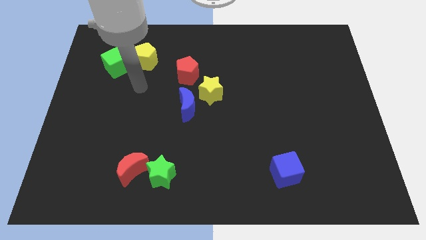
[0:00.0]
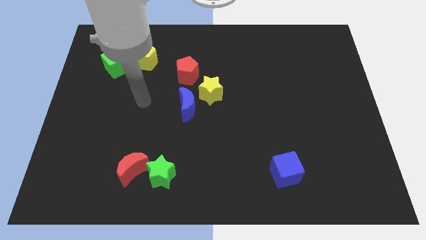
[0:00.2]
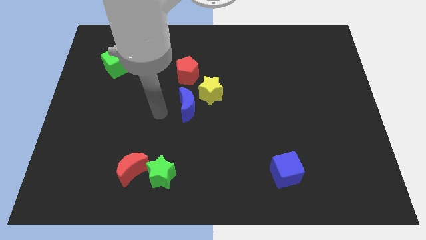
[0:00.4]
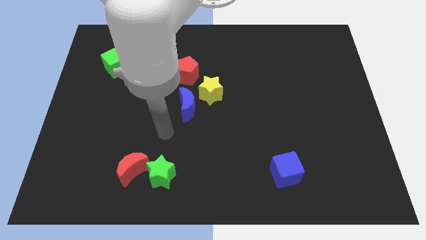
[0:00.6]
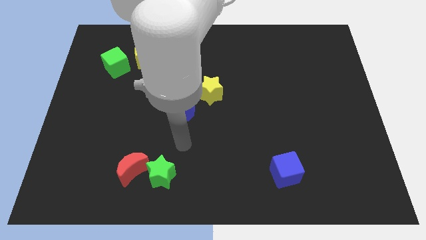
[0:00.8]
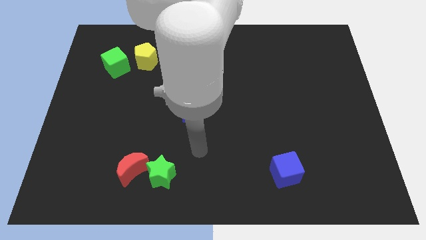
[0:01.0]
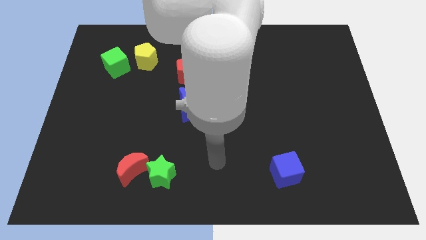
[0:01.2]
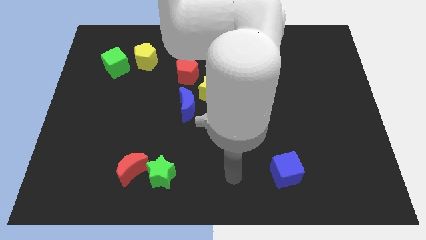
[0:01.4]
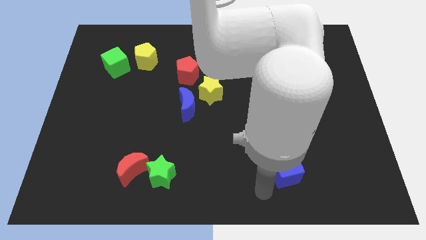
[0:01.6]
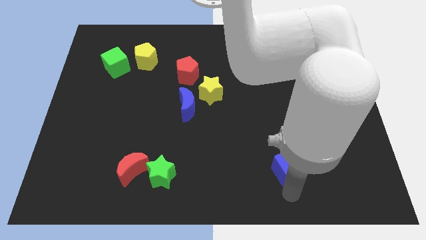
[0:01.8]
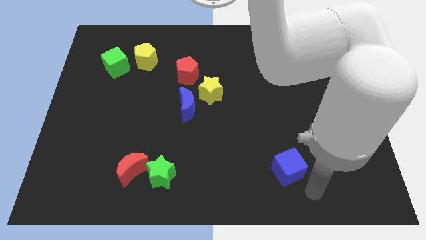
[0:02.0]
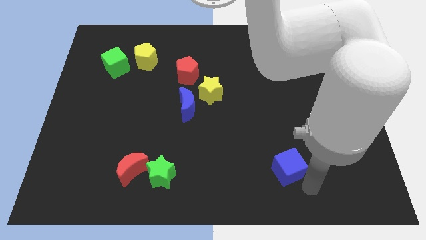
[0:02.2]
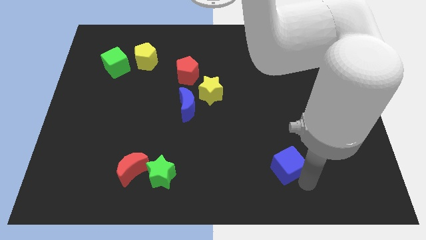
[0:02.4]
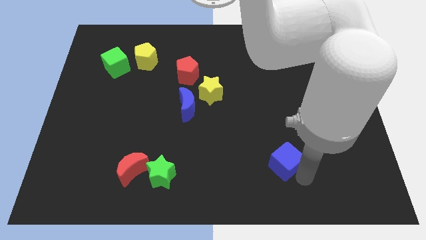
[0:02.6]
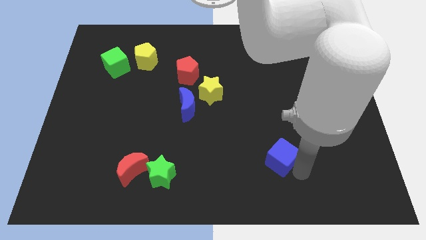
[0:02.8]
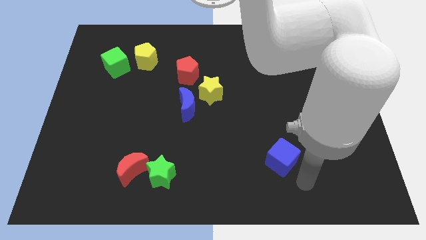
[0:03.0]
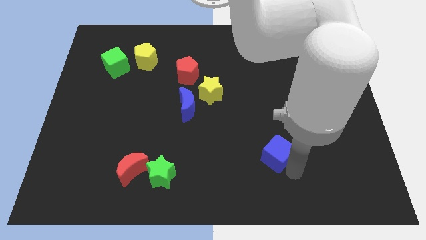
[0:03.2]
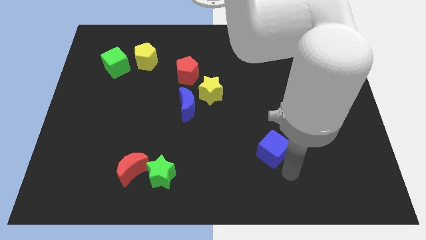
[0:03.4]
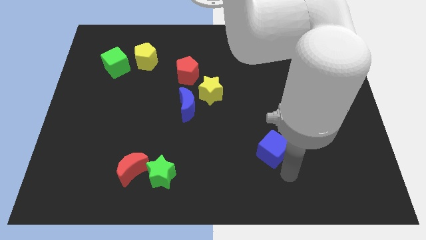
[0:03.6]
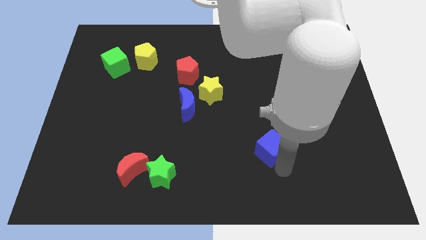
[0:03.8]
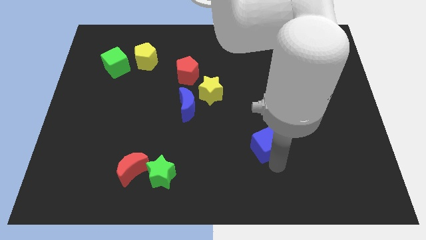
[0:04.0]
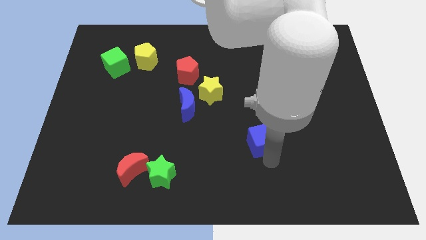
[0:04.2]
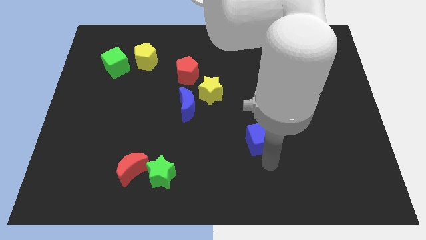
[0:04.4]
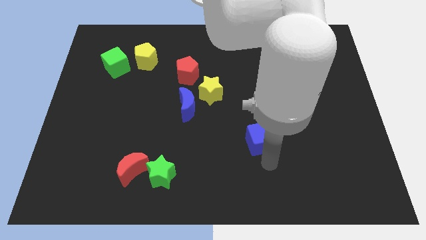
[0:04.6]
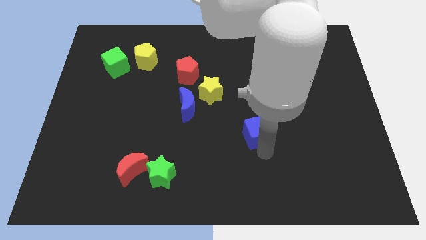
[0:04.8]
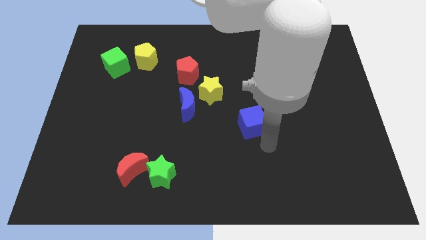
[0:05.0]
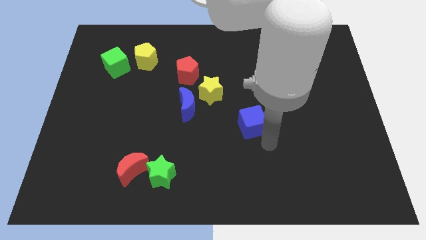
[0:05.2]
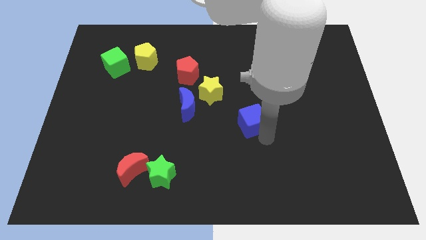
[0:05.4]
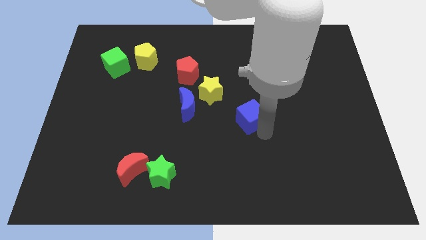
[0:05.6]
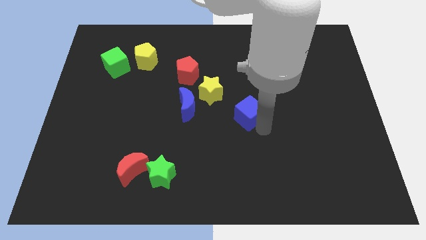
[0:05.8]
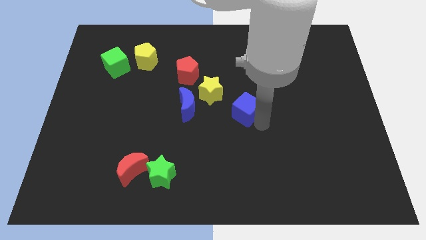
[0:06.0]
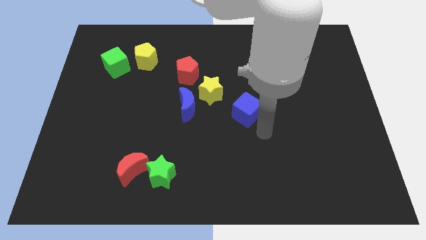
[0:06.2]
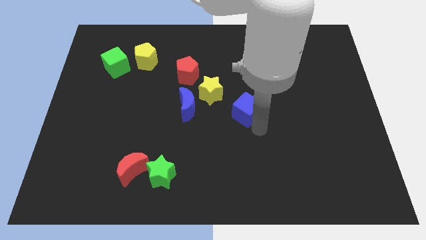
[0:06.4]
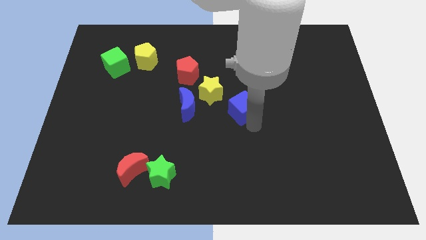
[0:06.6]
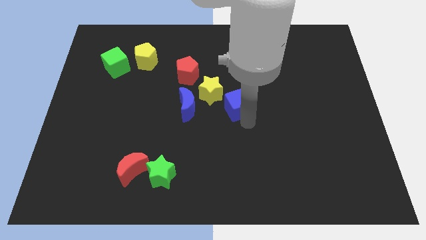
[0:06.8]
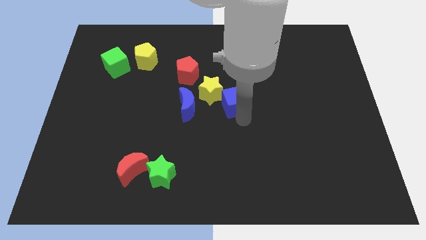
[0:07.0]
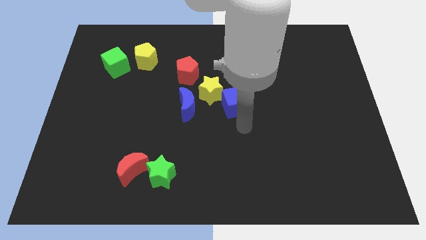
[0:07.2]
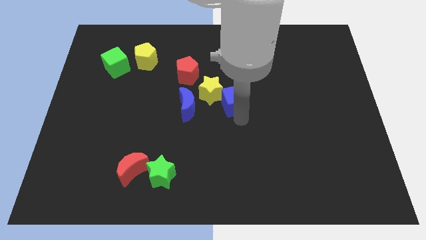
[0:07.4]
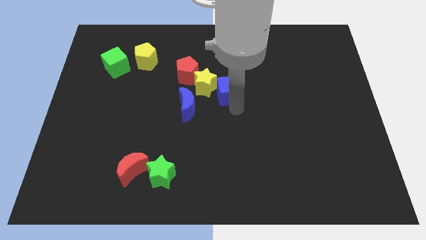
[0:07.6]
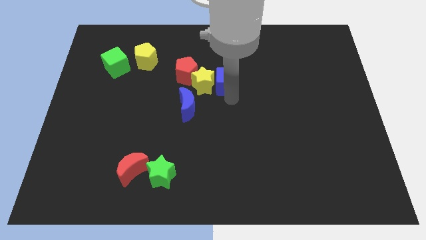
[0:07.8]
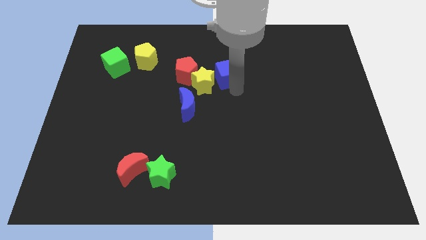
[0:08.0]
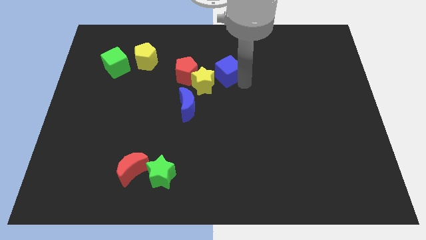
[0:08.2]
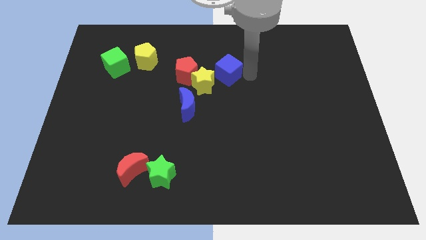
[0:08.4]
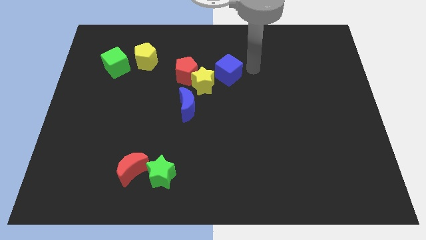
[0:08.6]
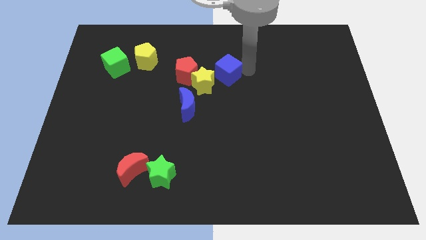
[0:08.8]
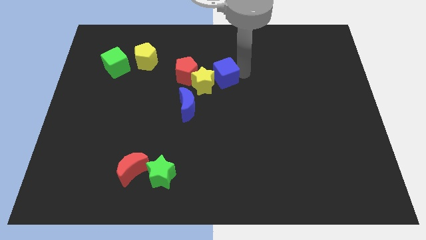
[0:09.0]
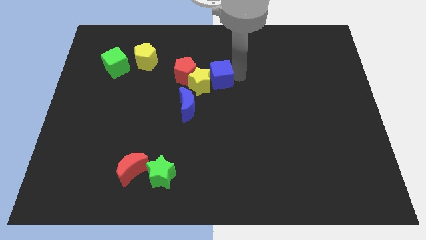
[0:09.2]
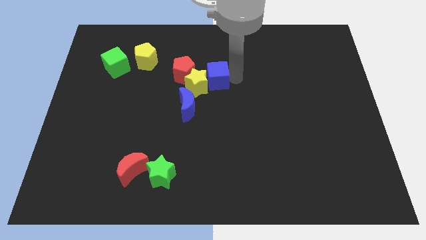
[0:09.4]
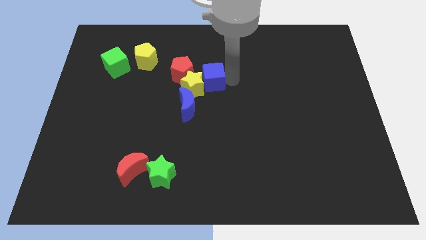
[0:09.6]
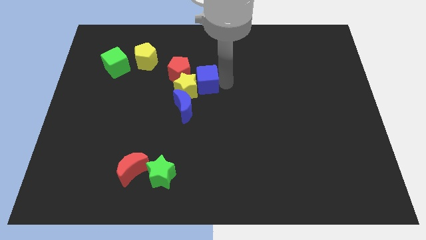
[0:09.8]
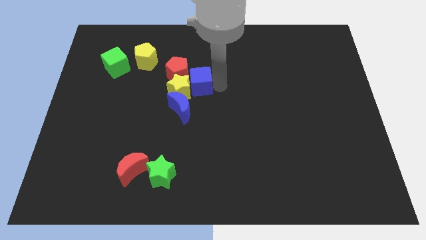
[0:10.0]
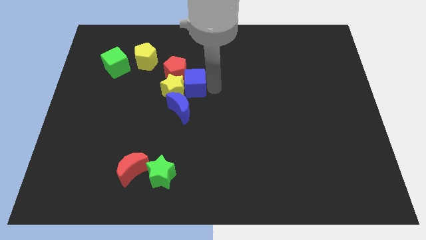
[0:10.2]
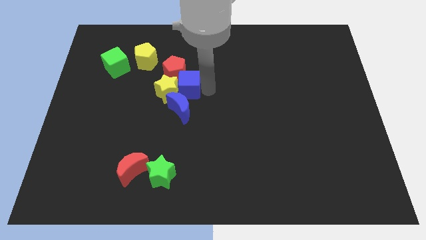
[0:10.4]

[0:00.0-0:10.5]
put the blue cube to the red pentagon

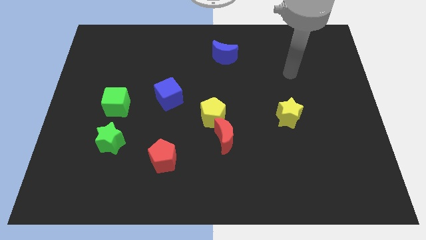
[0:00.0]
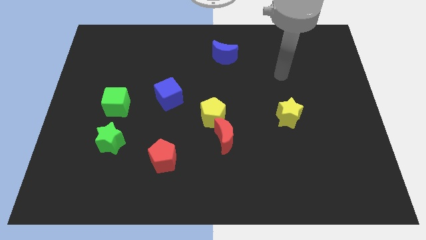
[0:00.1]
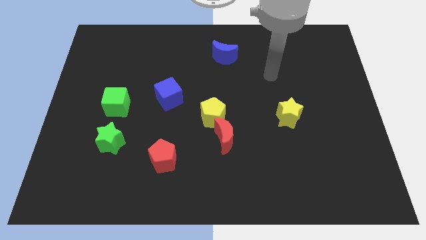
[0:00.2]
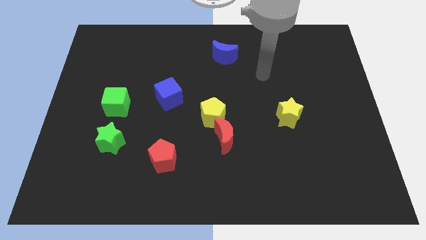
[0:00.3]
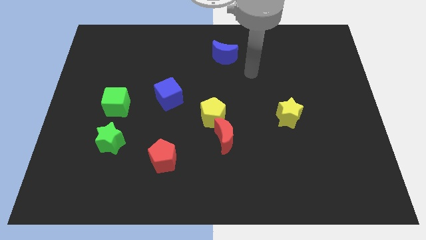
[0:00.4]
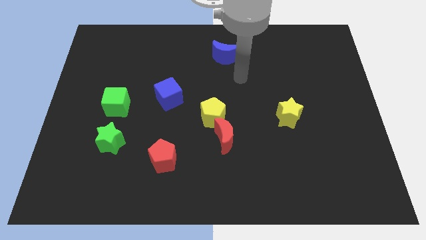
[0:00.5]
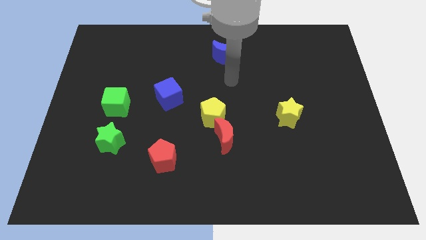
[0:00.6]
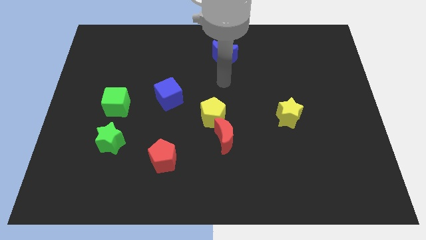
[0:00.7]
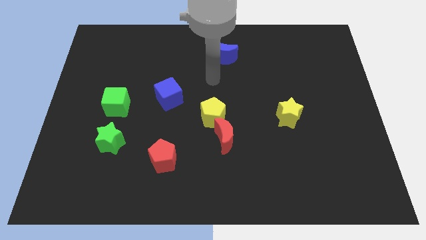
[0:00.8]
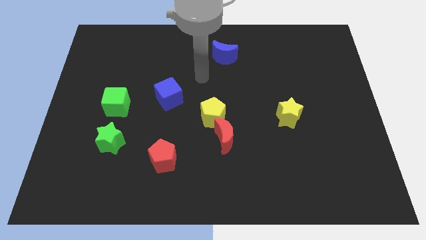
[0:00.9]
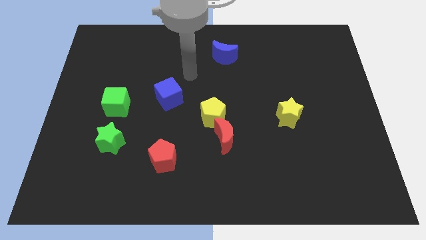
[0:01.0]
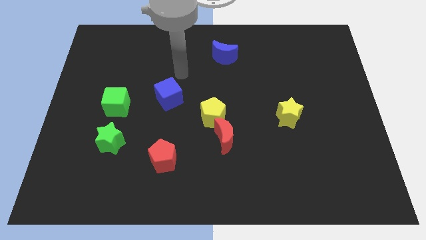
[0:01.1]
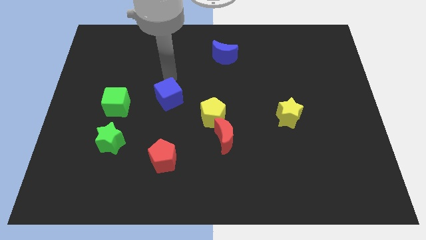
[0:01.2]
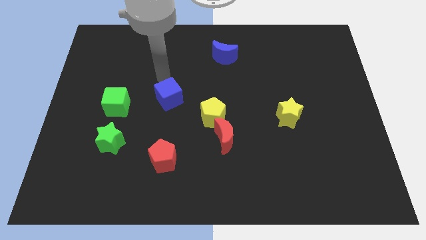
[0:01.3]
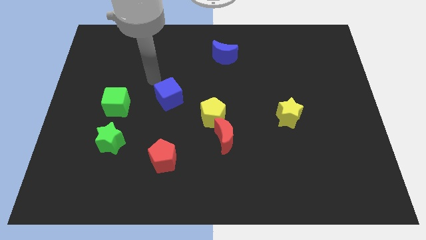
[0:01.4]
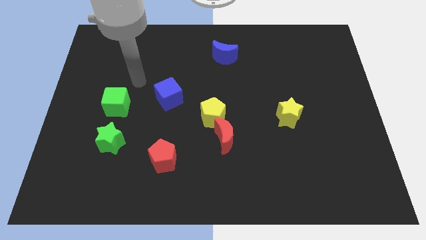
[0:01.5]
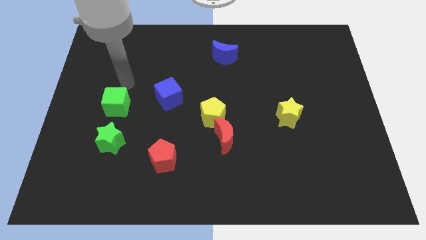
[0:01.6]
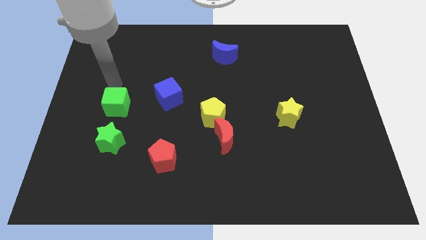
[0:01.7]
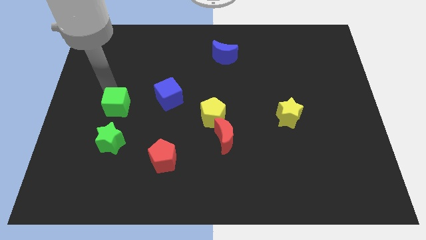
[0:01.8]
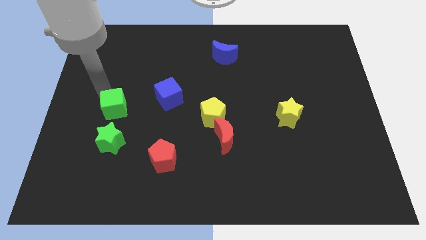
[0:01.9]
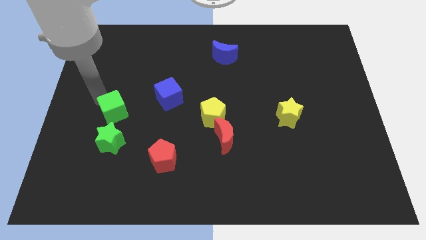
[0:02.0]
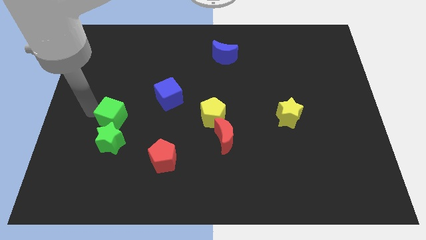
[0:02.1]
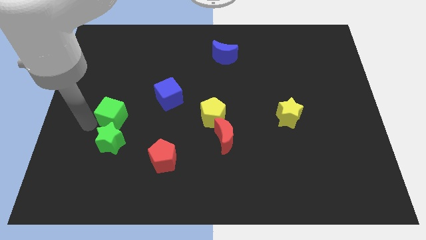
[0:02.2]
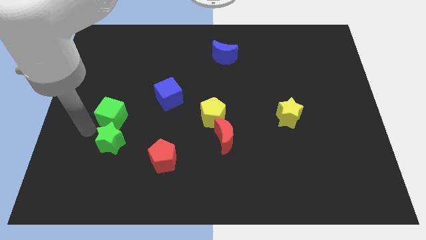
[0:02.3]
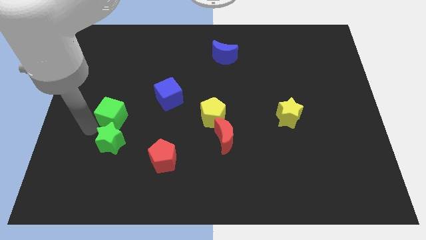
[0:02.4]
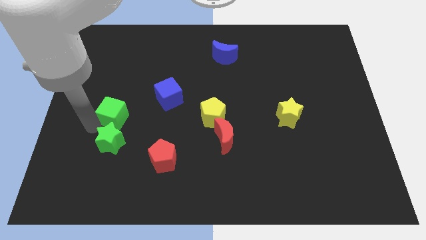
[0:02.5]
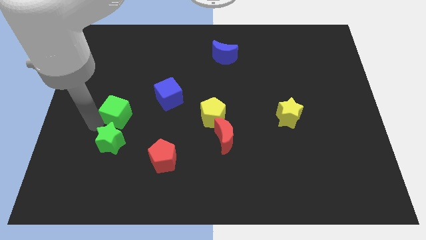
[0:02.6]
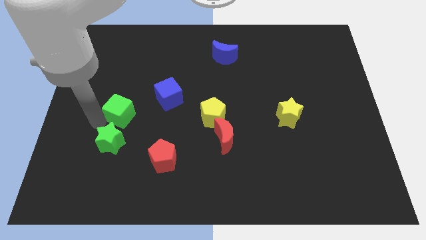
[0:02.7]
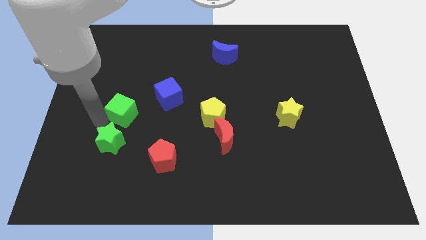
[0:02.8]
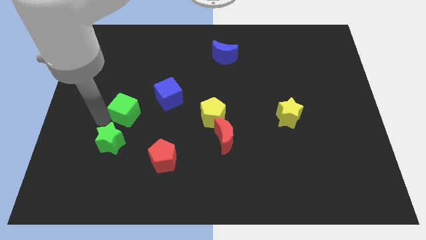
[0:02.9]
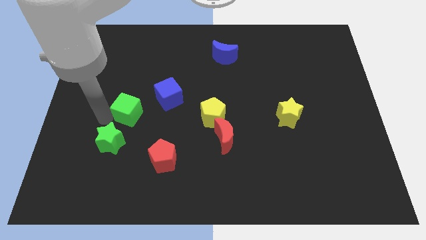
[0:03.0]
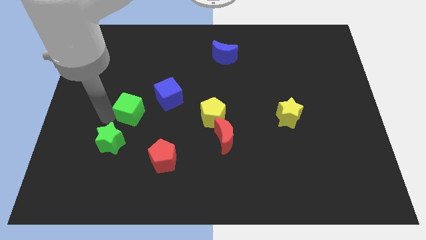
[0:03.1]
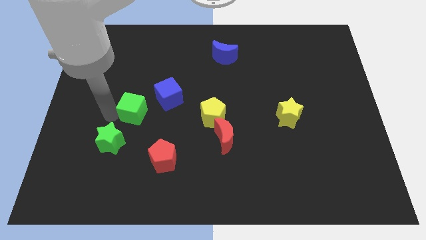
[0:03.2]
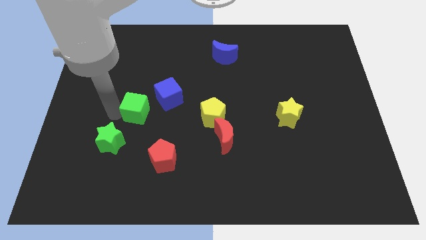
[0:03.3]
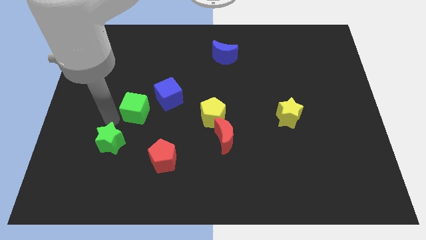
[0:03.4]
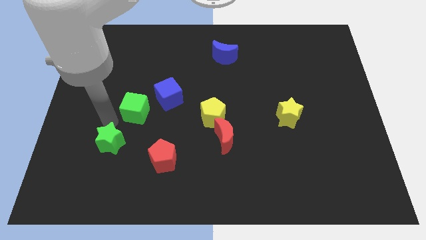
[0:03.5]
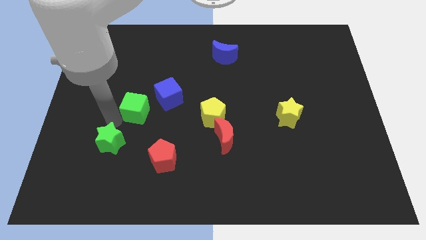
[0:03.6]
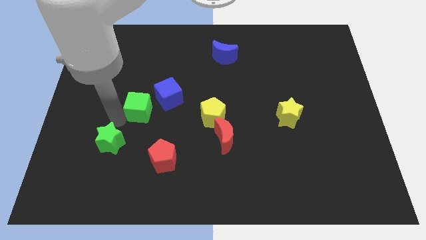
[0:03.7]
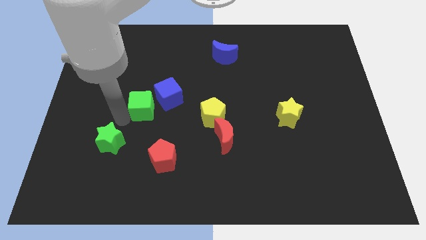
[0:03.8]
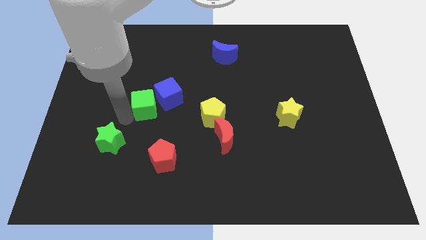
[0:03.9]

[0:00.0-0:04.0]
slide the green cube next to the blue cube
